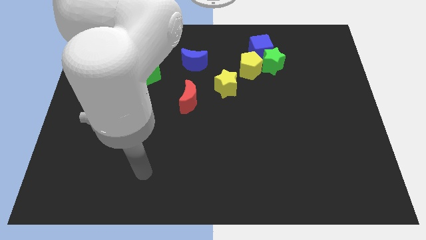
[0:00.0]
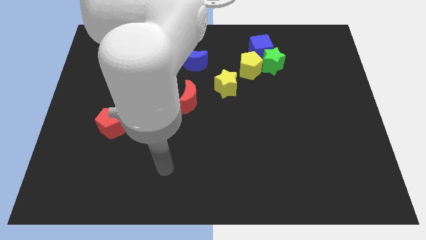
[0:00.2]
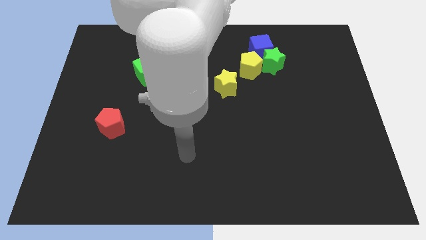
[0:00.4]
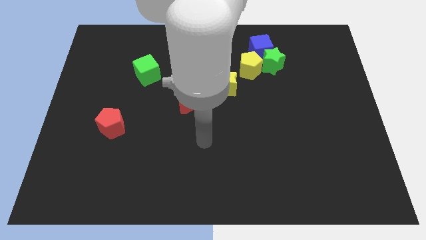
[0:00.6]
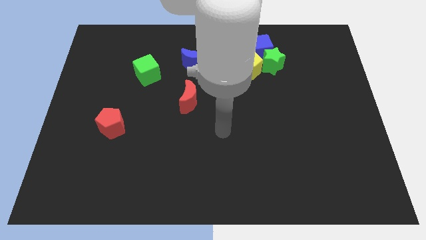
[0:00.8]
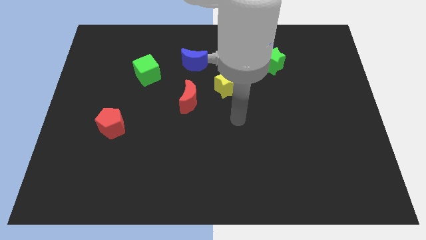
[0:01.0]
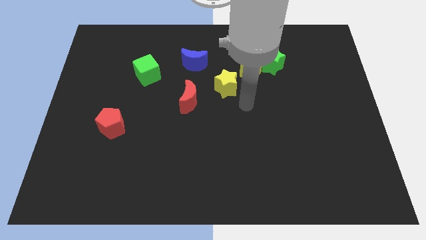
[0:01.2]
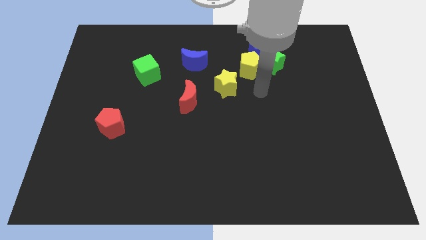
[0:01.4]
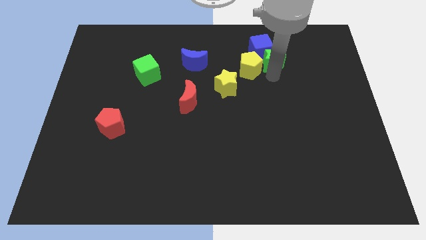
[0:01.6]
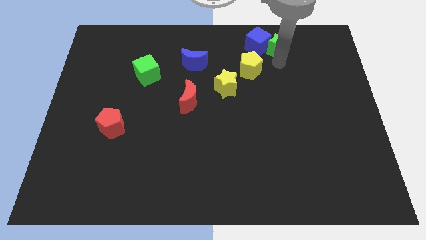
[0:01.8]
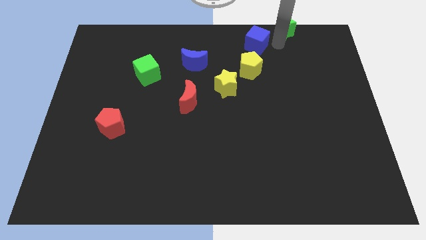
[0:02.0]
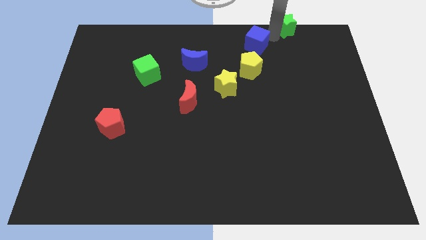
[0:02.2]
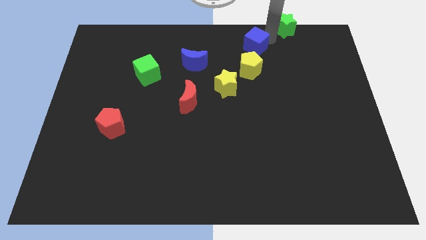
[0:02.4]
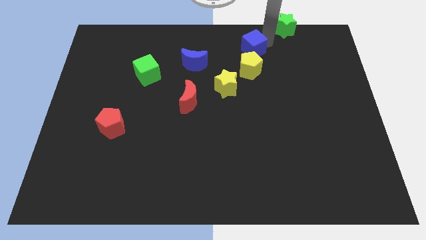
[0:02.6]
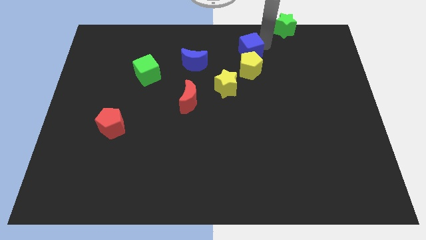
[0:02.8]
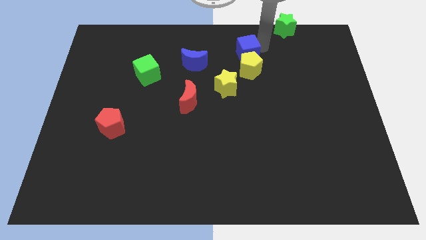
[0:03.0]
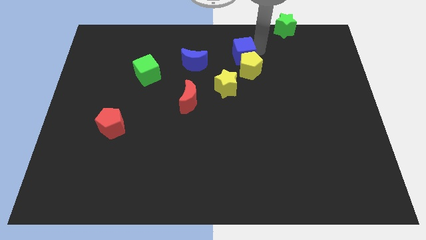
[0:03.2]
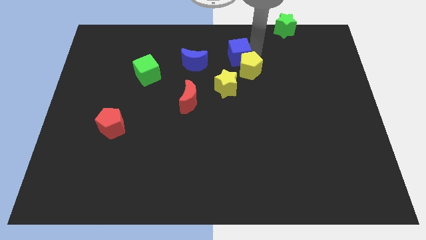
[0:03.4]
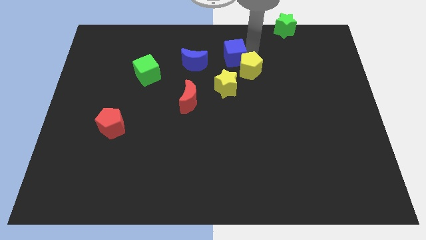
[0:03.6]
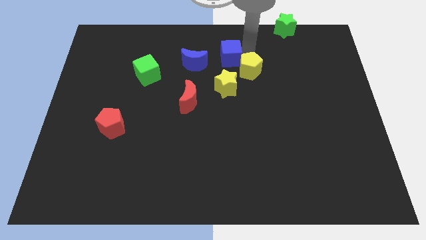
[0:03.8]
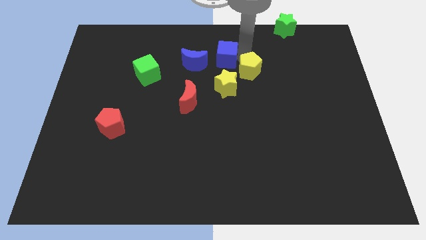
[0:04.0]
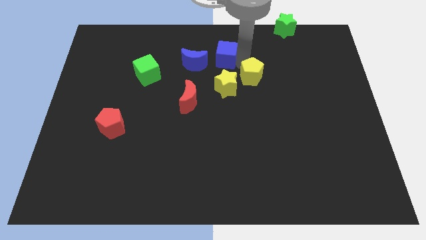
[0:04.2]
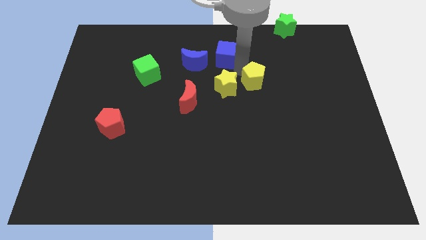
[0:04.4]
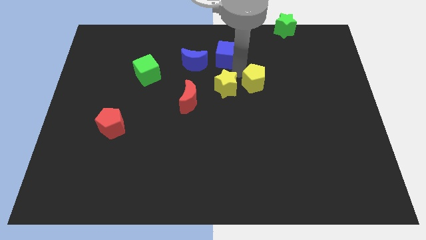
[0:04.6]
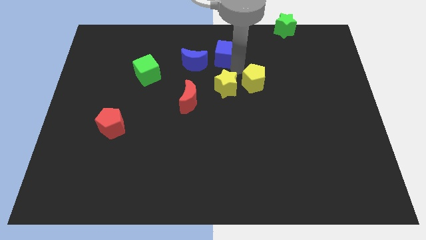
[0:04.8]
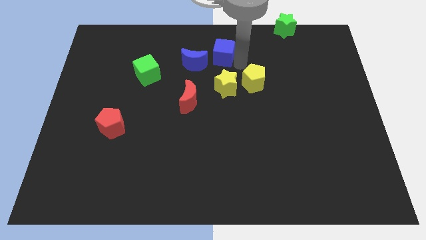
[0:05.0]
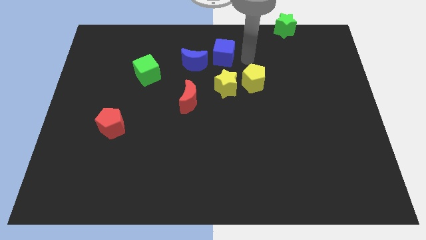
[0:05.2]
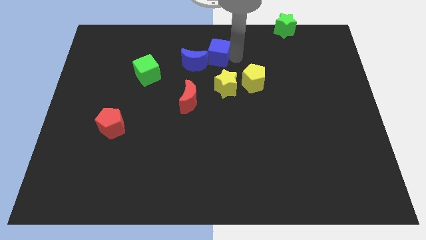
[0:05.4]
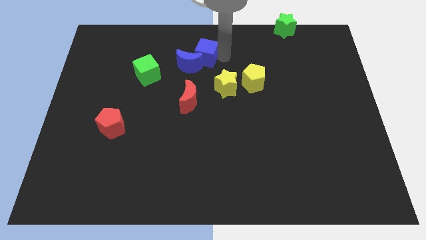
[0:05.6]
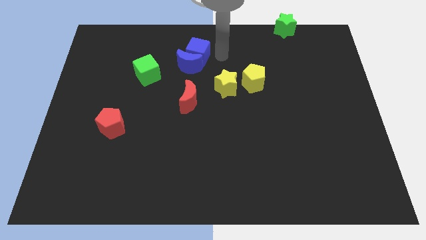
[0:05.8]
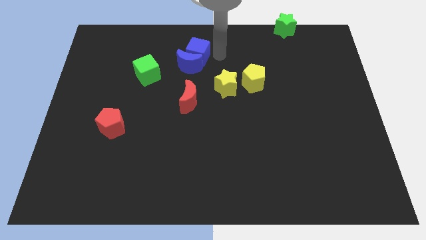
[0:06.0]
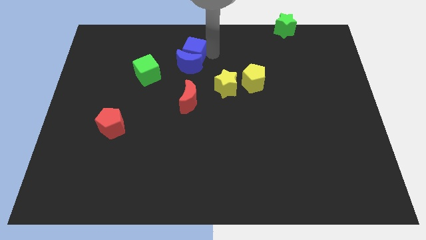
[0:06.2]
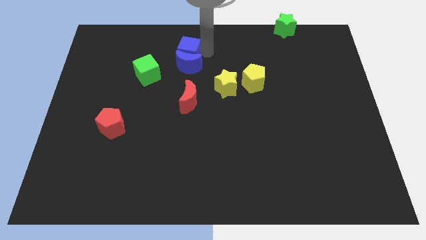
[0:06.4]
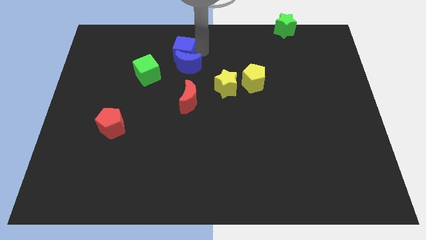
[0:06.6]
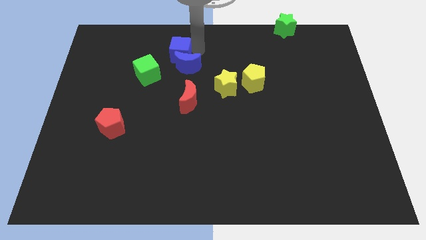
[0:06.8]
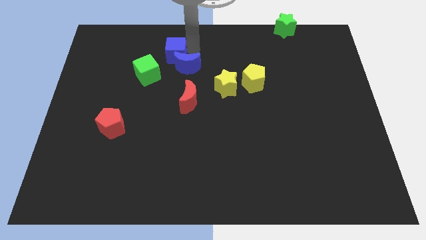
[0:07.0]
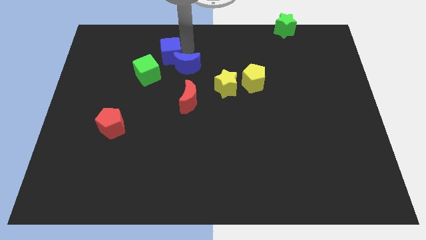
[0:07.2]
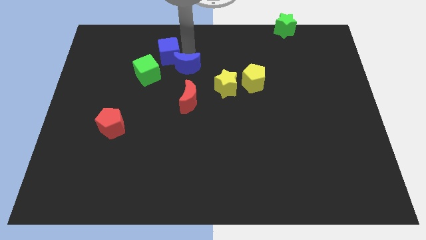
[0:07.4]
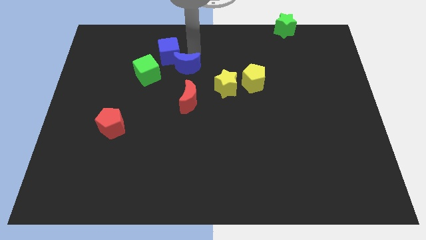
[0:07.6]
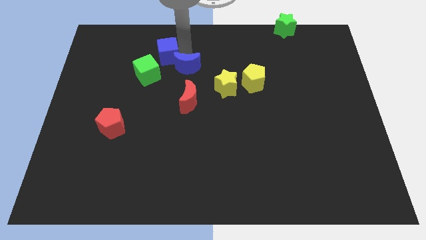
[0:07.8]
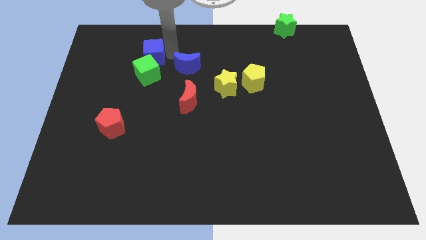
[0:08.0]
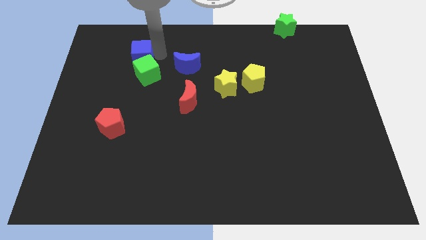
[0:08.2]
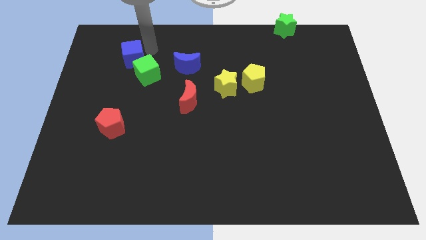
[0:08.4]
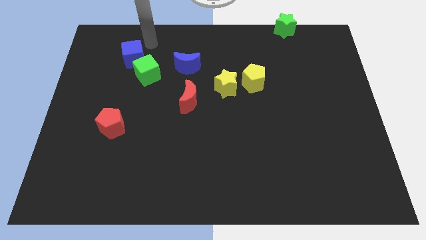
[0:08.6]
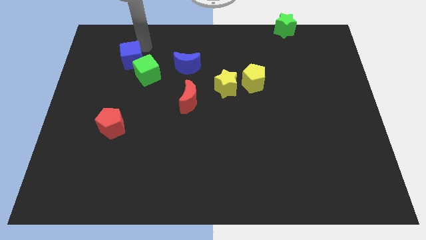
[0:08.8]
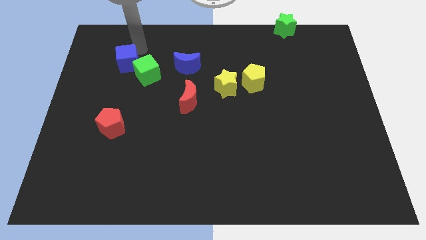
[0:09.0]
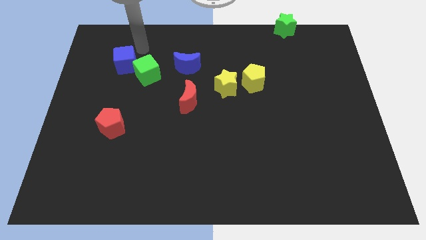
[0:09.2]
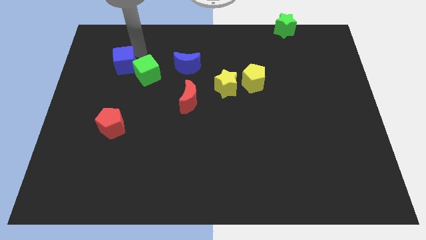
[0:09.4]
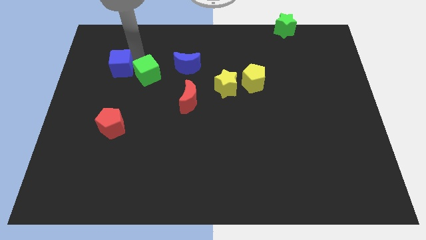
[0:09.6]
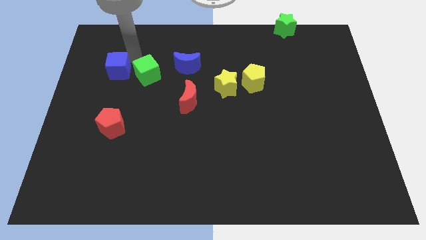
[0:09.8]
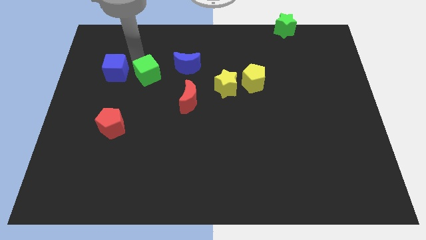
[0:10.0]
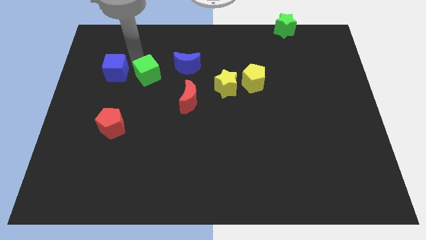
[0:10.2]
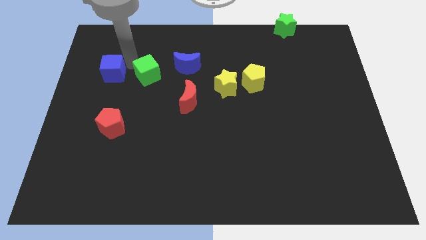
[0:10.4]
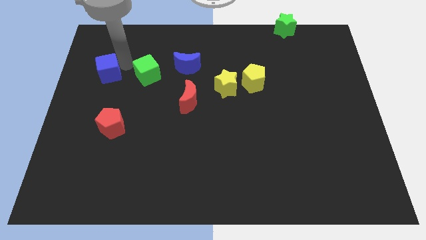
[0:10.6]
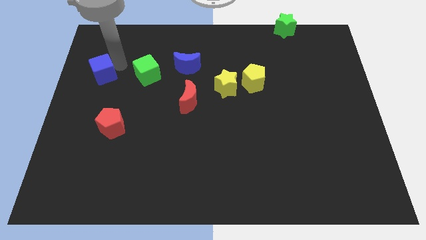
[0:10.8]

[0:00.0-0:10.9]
put the blue cube to the center left
